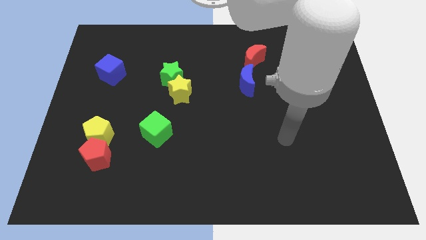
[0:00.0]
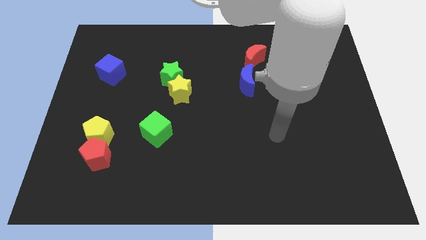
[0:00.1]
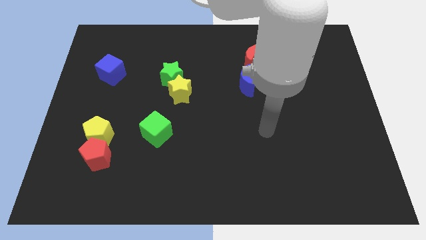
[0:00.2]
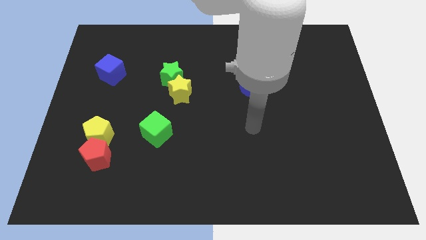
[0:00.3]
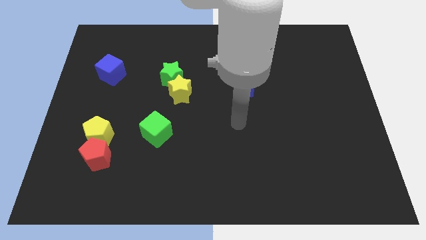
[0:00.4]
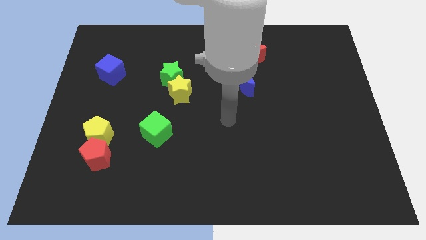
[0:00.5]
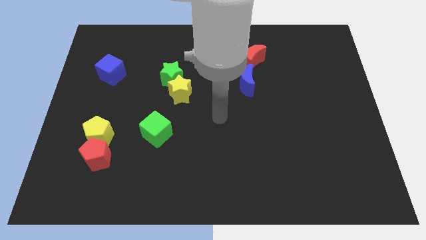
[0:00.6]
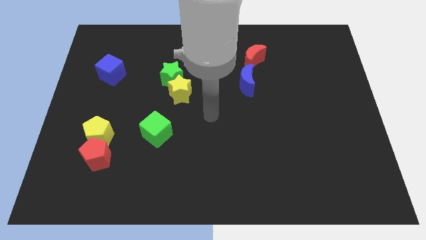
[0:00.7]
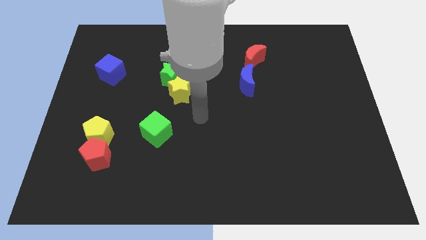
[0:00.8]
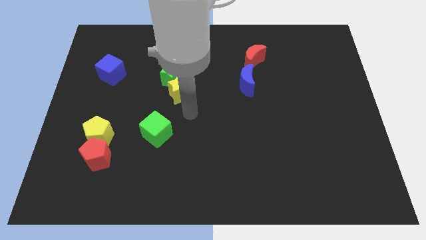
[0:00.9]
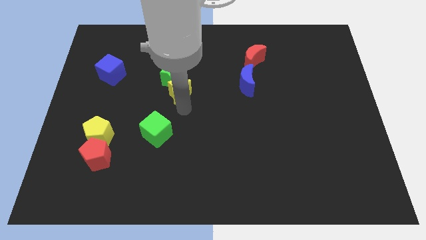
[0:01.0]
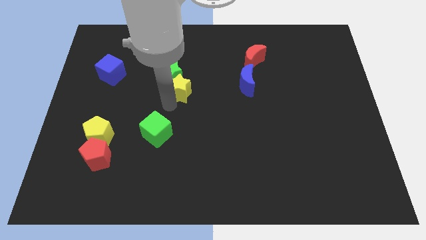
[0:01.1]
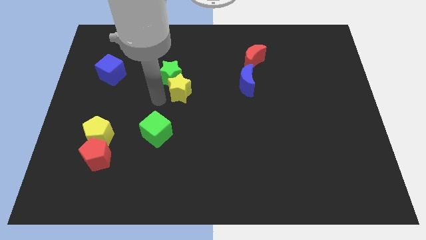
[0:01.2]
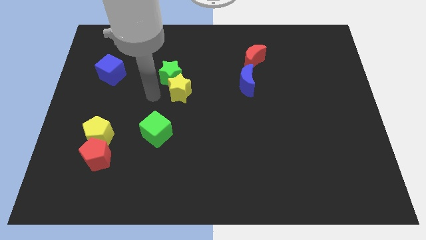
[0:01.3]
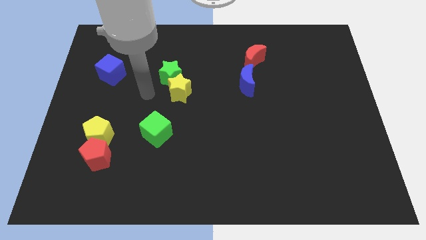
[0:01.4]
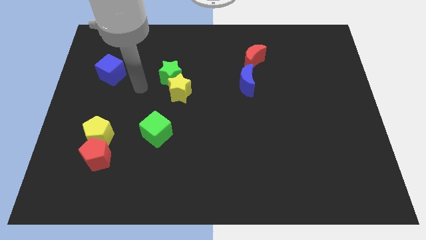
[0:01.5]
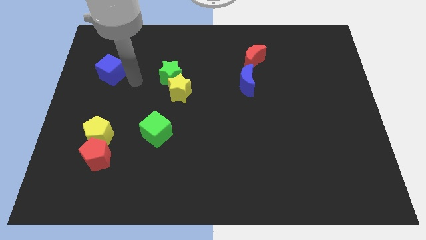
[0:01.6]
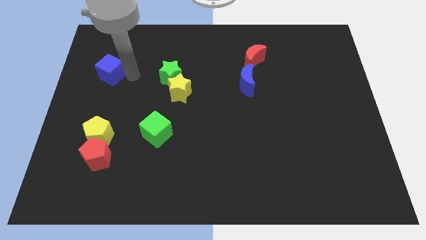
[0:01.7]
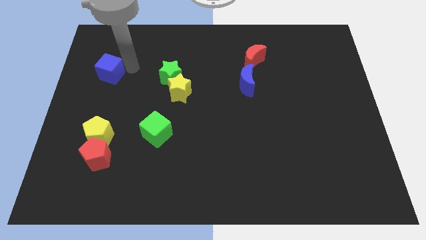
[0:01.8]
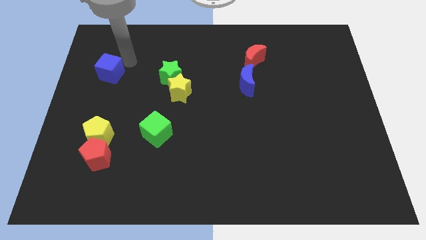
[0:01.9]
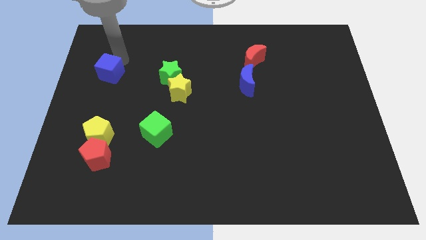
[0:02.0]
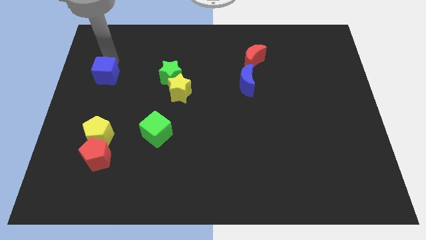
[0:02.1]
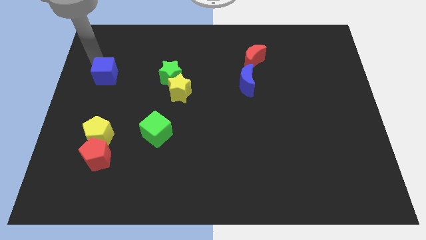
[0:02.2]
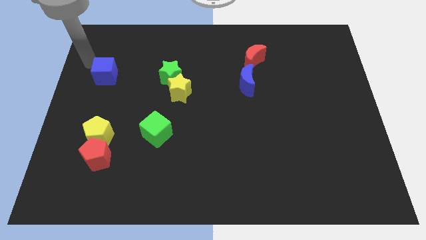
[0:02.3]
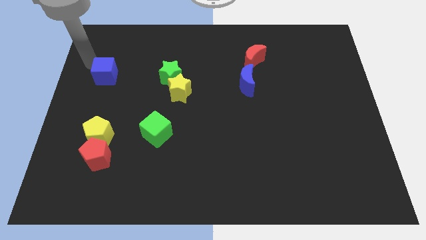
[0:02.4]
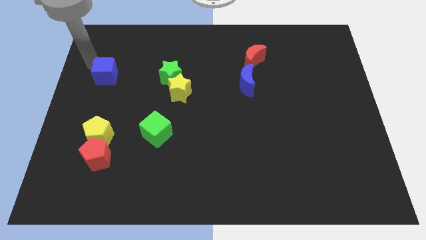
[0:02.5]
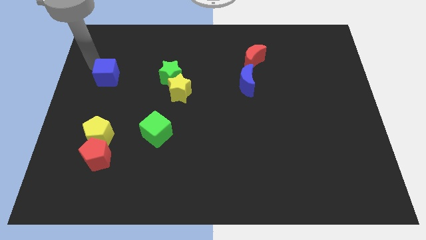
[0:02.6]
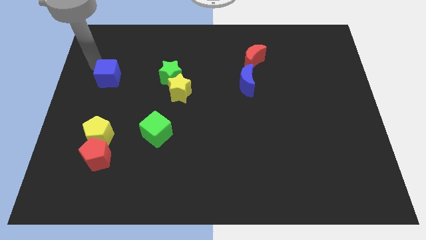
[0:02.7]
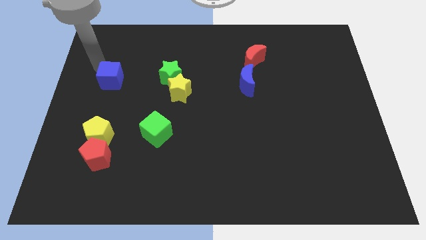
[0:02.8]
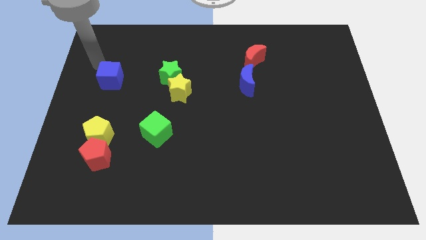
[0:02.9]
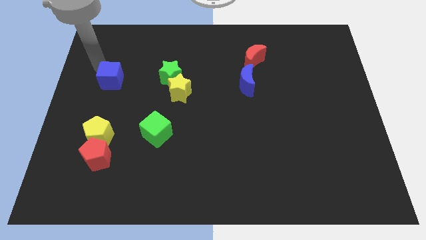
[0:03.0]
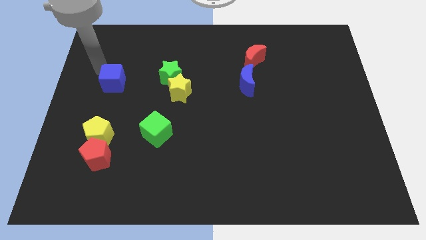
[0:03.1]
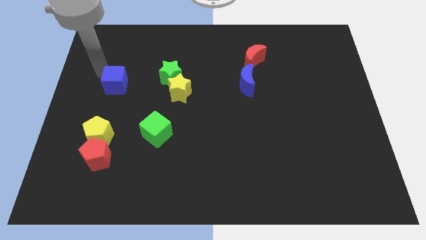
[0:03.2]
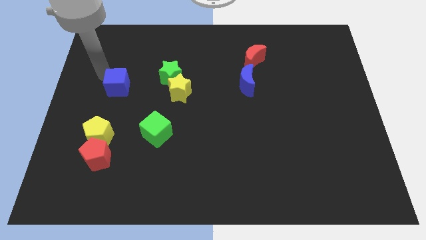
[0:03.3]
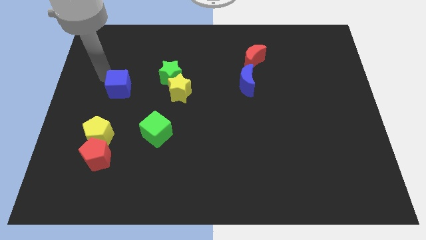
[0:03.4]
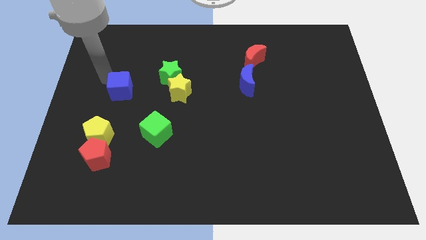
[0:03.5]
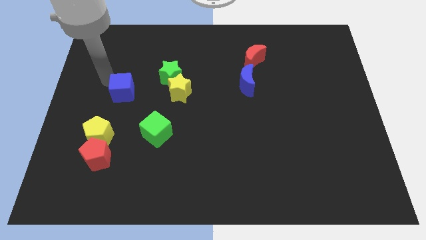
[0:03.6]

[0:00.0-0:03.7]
push the blue cube down and to the right a bit

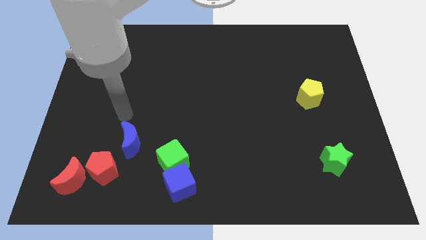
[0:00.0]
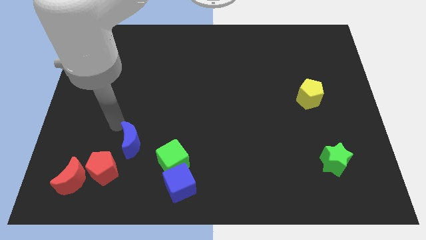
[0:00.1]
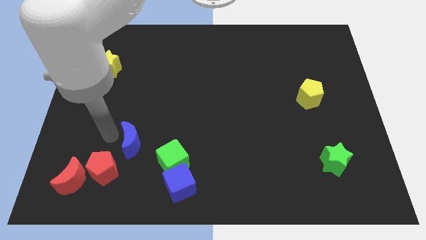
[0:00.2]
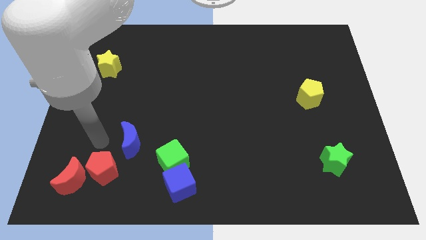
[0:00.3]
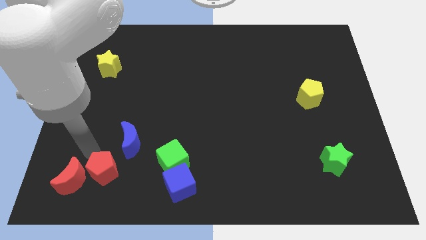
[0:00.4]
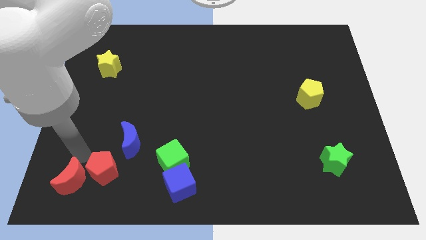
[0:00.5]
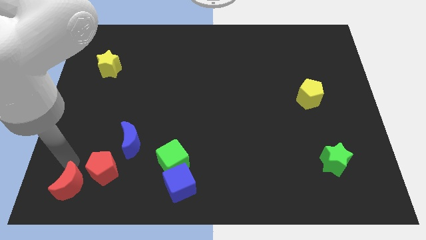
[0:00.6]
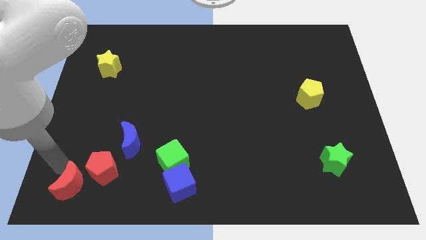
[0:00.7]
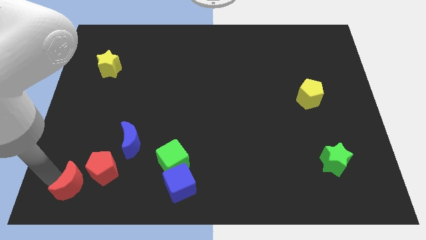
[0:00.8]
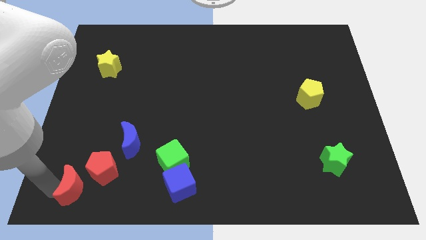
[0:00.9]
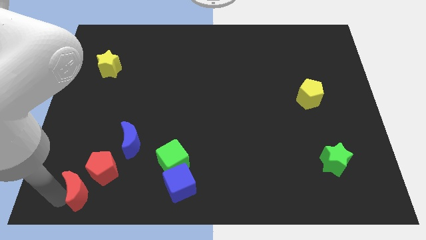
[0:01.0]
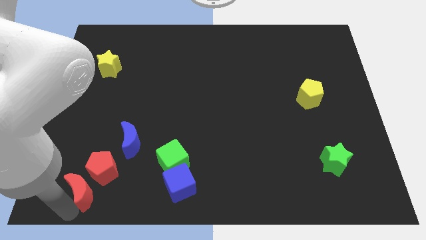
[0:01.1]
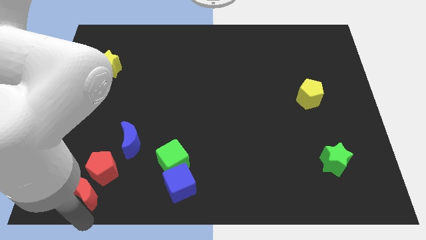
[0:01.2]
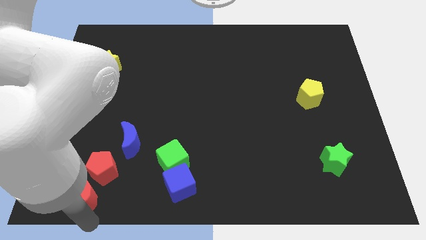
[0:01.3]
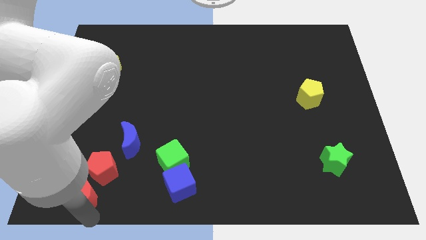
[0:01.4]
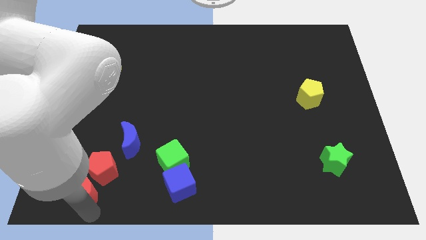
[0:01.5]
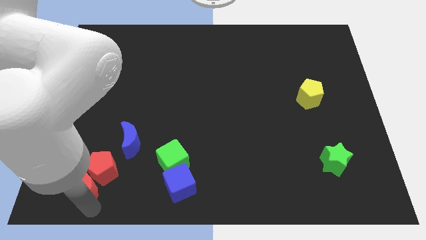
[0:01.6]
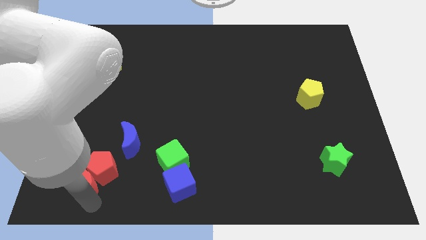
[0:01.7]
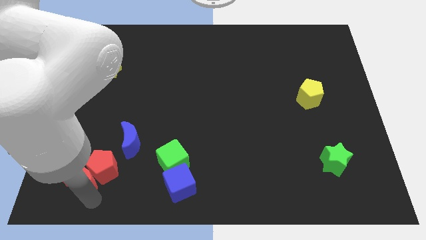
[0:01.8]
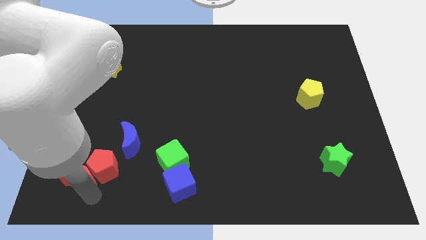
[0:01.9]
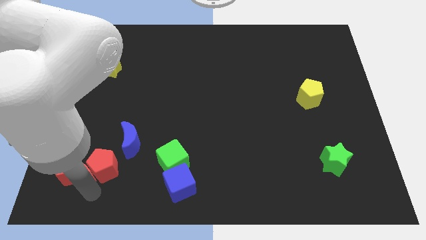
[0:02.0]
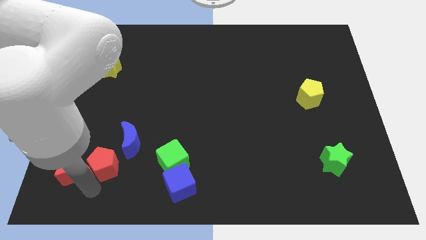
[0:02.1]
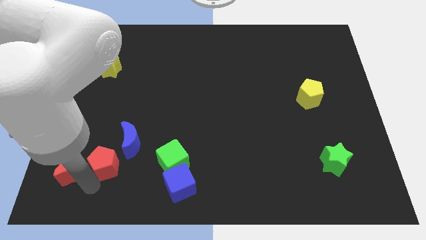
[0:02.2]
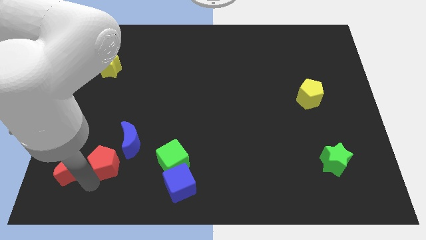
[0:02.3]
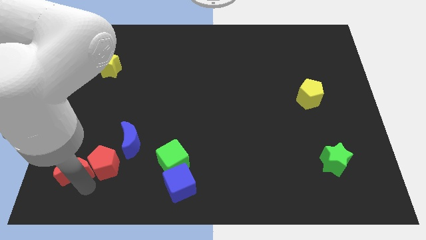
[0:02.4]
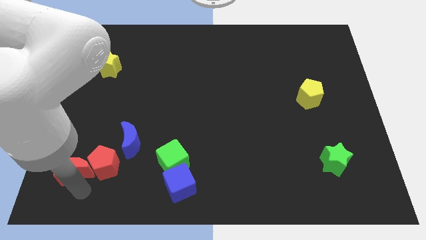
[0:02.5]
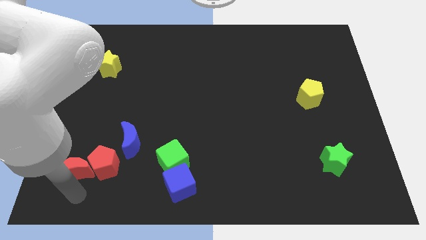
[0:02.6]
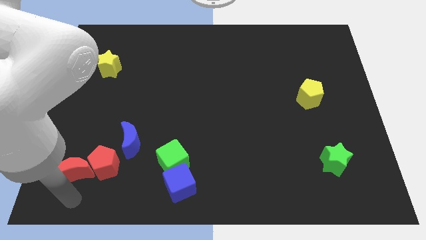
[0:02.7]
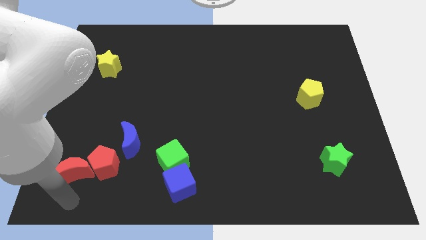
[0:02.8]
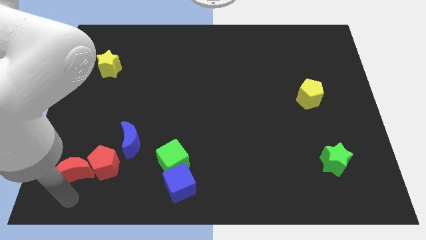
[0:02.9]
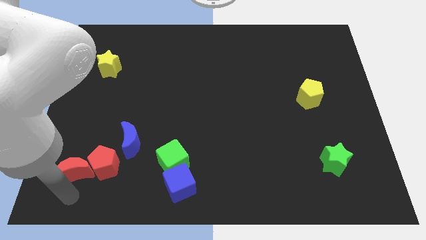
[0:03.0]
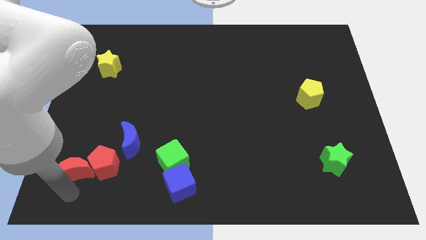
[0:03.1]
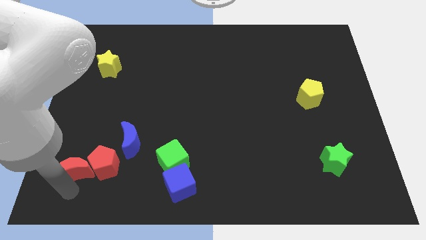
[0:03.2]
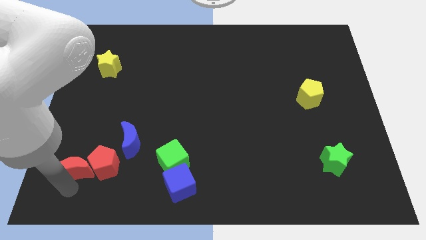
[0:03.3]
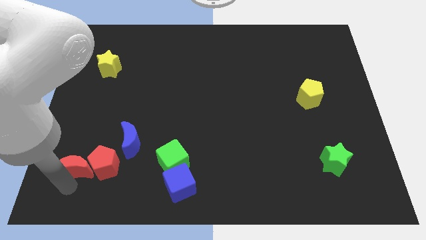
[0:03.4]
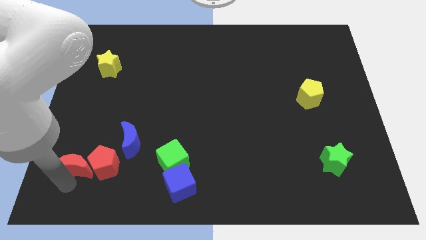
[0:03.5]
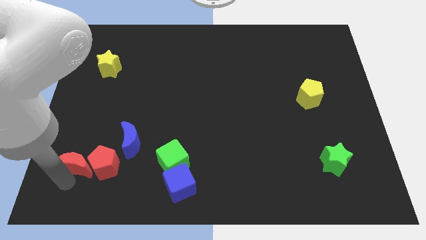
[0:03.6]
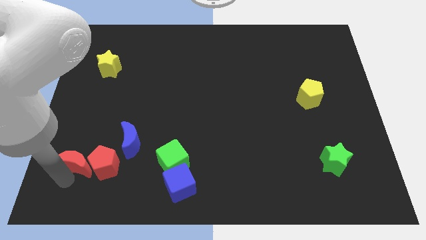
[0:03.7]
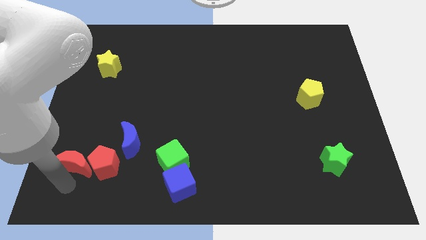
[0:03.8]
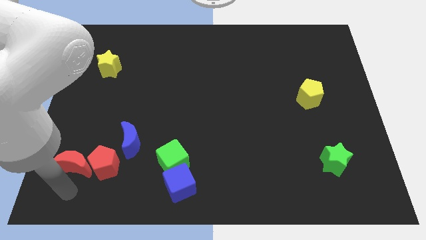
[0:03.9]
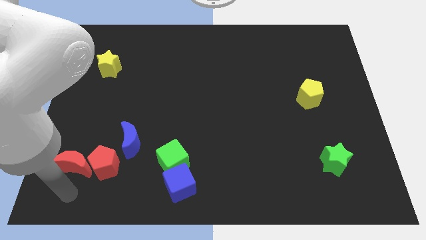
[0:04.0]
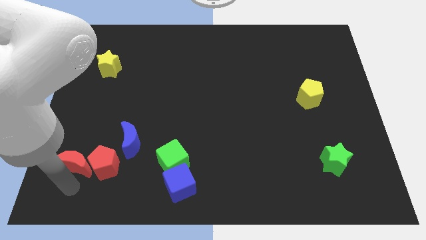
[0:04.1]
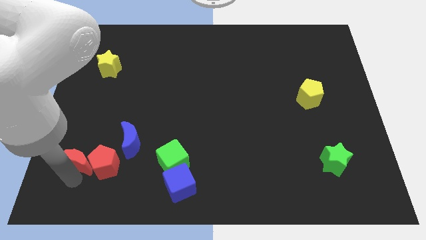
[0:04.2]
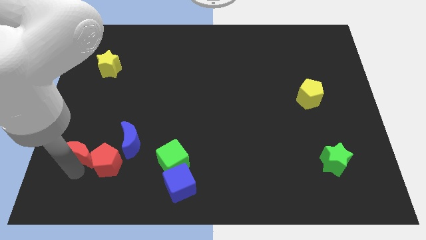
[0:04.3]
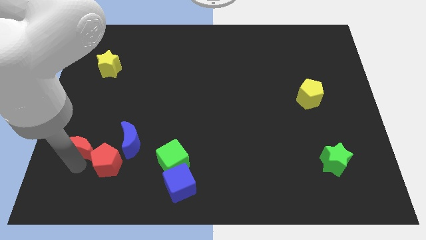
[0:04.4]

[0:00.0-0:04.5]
slightly push the red moon upwards
